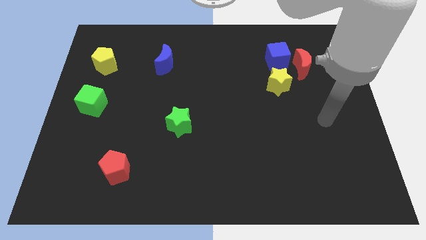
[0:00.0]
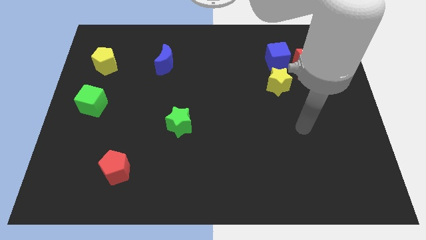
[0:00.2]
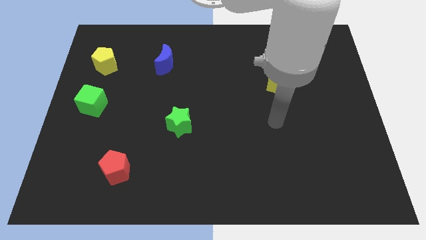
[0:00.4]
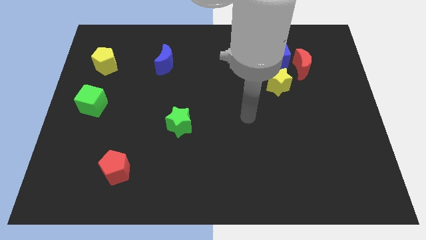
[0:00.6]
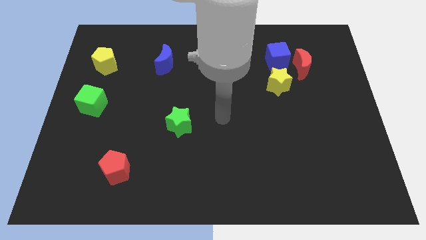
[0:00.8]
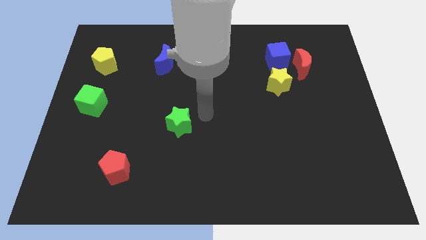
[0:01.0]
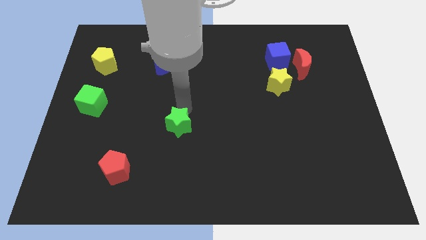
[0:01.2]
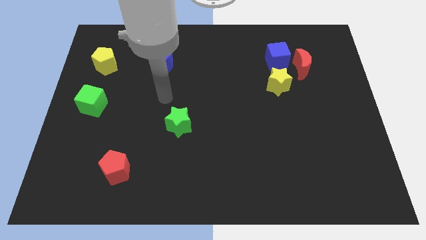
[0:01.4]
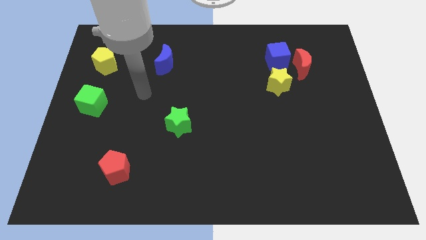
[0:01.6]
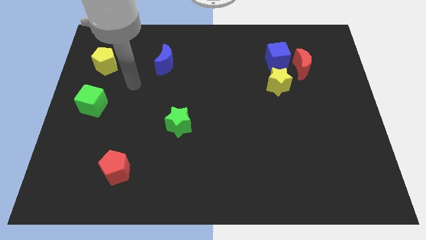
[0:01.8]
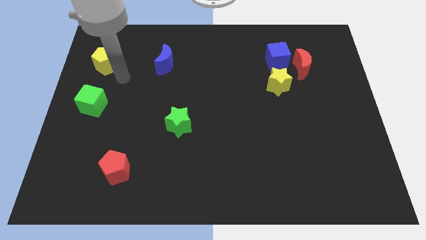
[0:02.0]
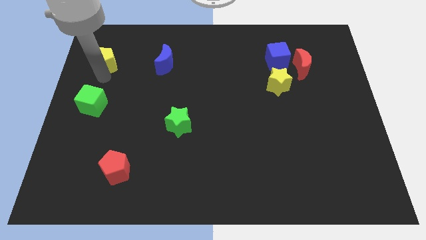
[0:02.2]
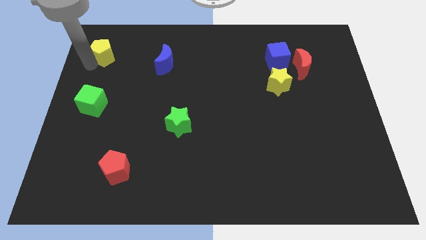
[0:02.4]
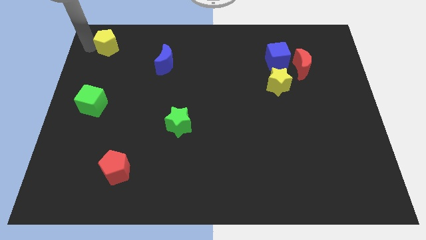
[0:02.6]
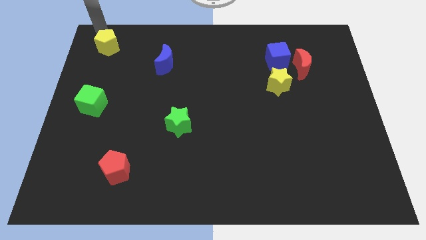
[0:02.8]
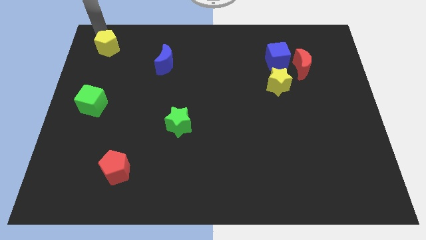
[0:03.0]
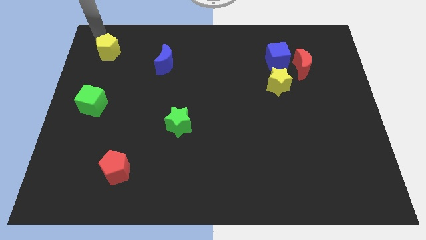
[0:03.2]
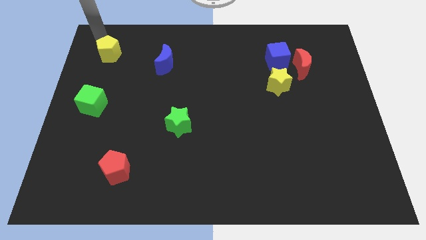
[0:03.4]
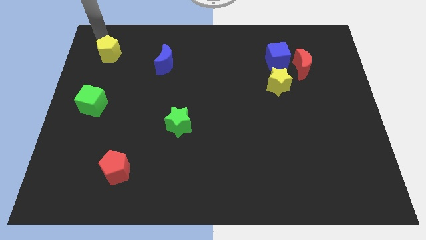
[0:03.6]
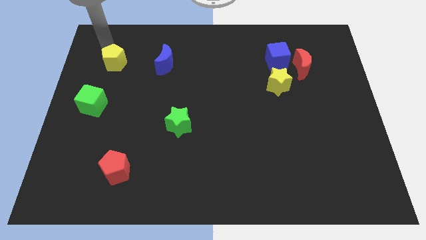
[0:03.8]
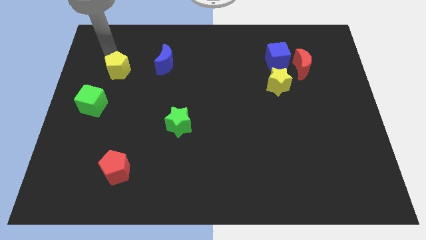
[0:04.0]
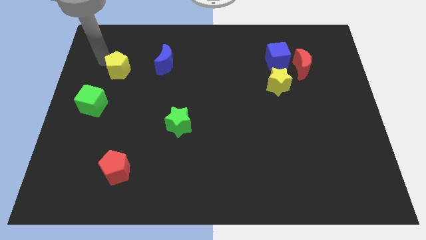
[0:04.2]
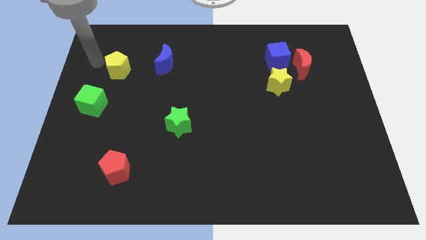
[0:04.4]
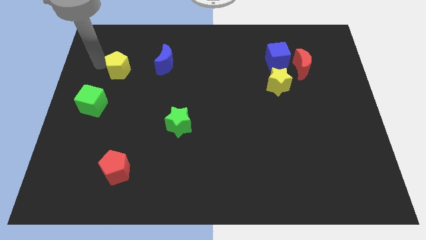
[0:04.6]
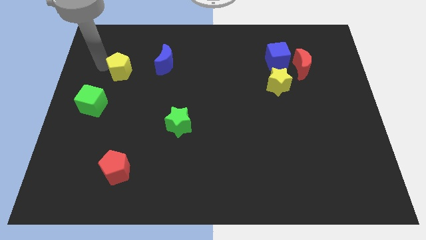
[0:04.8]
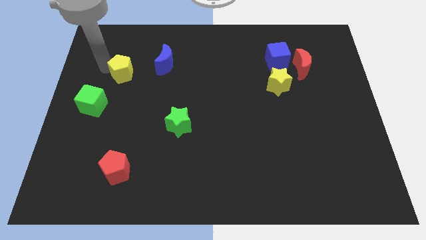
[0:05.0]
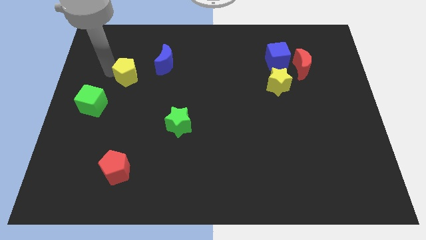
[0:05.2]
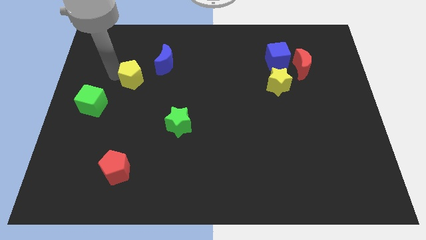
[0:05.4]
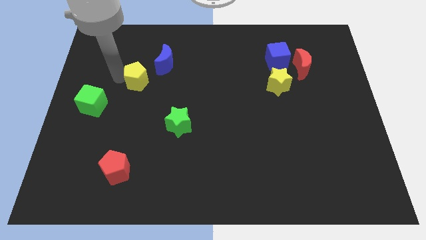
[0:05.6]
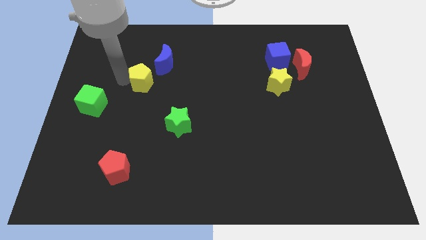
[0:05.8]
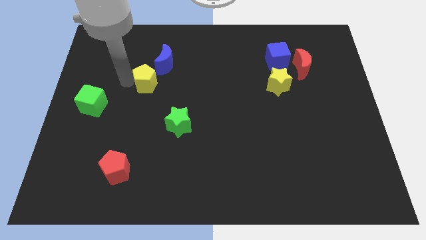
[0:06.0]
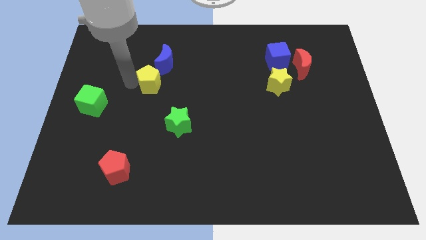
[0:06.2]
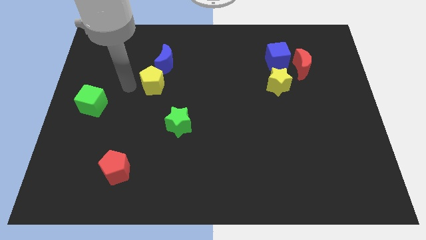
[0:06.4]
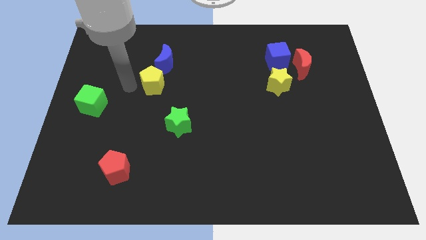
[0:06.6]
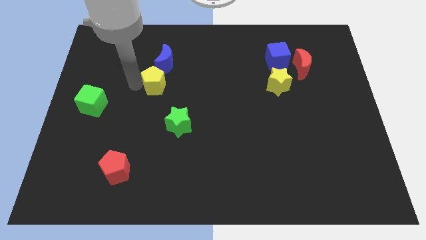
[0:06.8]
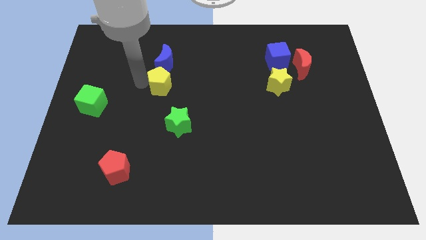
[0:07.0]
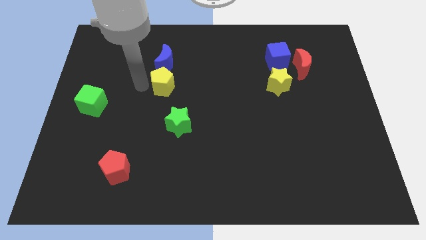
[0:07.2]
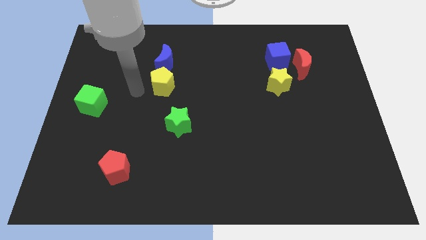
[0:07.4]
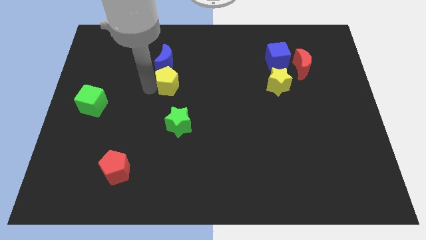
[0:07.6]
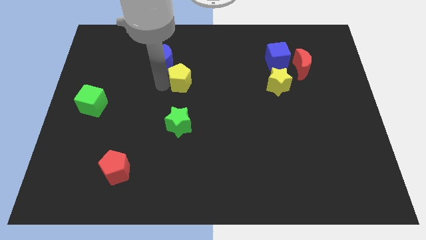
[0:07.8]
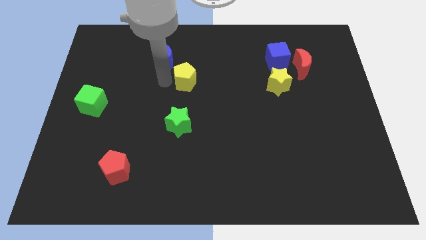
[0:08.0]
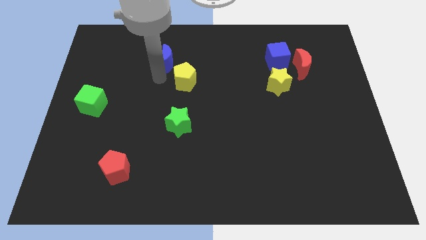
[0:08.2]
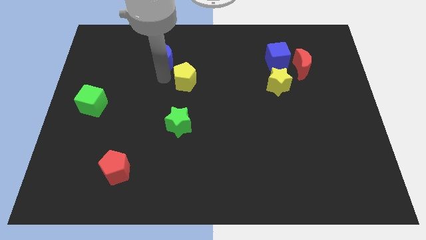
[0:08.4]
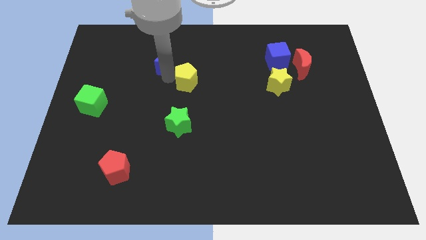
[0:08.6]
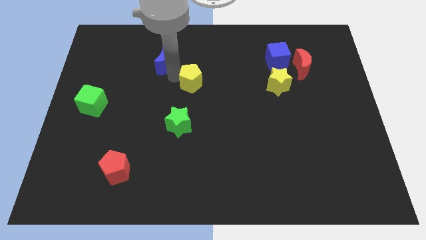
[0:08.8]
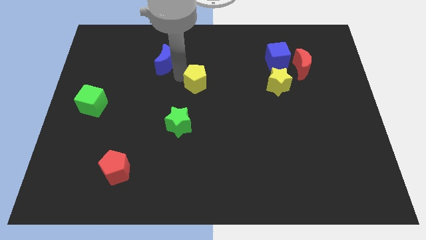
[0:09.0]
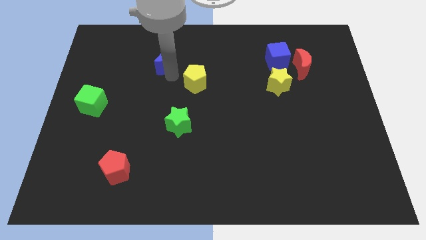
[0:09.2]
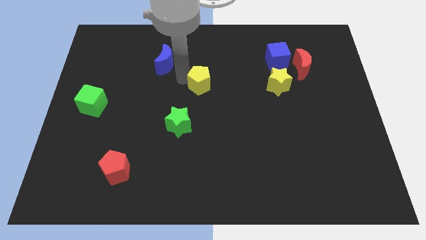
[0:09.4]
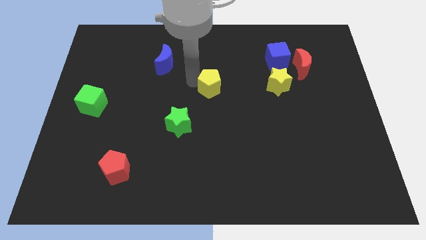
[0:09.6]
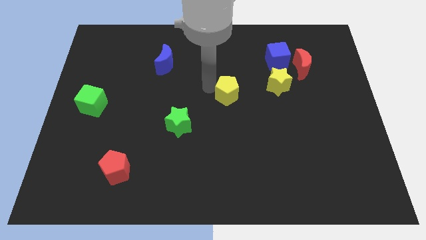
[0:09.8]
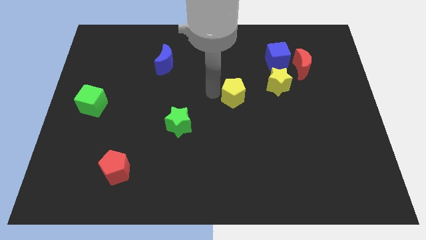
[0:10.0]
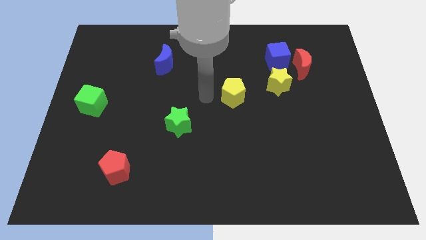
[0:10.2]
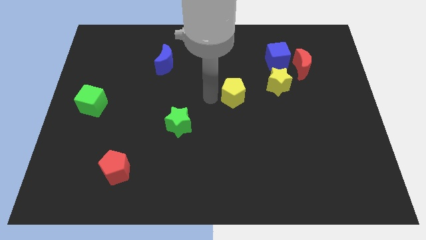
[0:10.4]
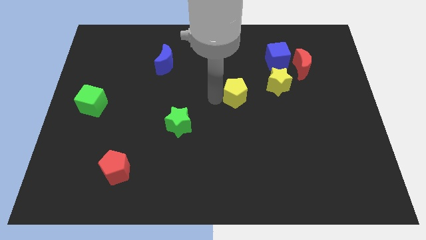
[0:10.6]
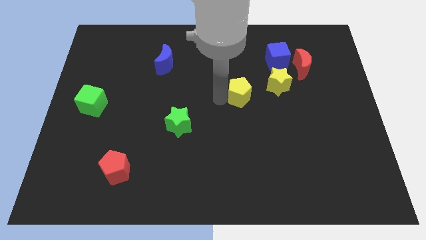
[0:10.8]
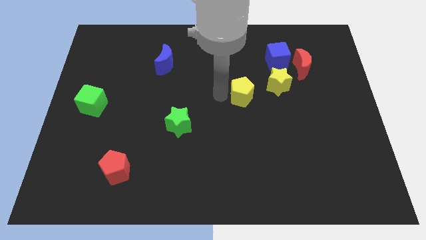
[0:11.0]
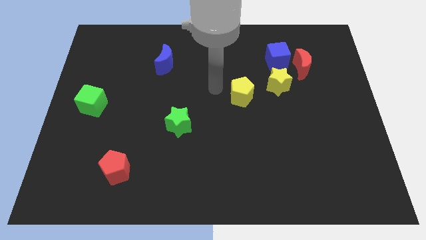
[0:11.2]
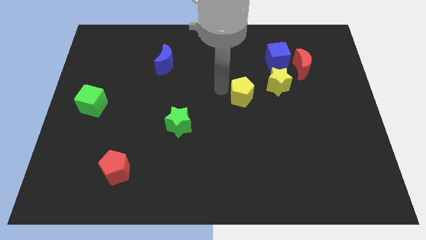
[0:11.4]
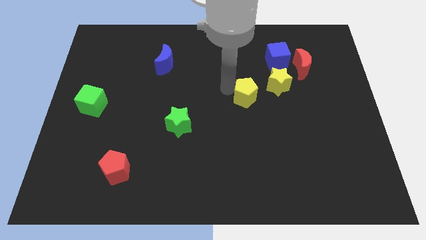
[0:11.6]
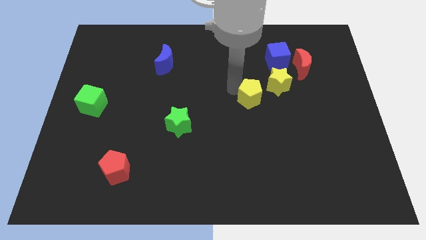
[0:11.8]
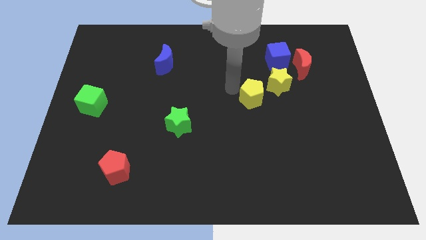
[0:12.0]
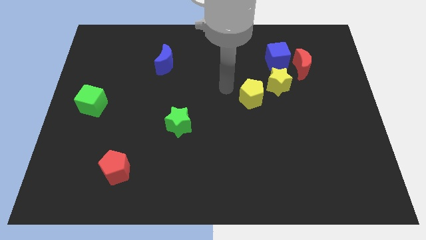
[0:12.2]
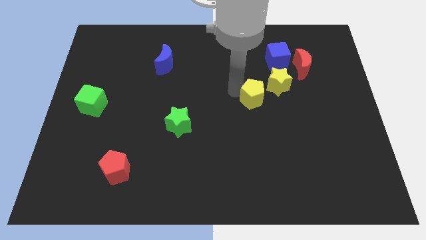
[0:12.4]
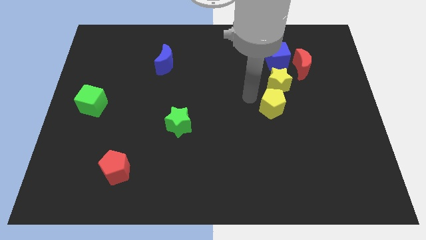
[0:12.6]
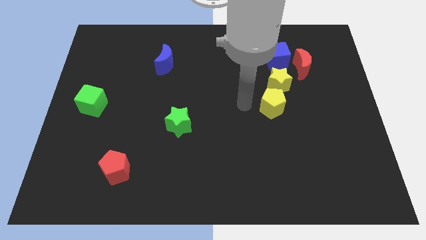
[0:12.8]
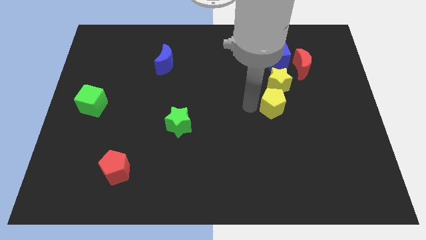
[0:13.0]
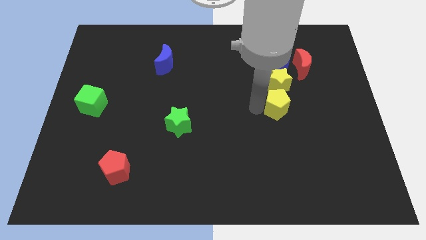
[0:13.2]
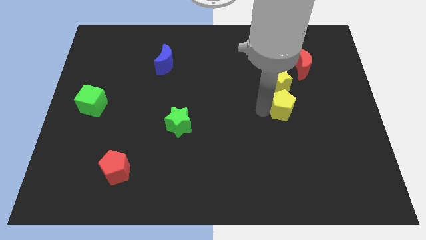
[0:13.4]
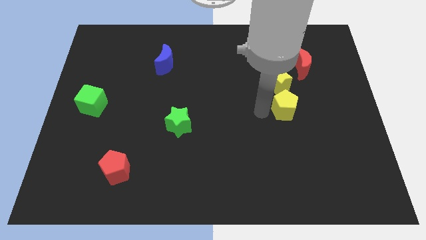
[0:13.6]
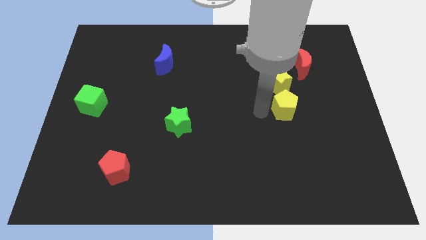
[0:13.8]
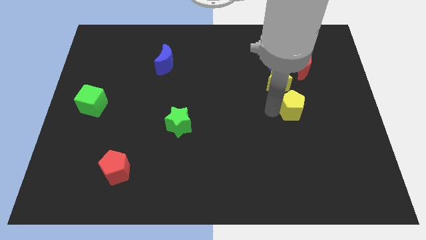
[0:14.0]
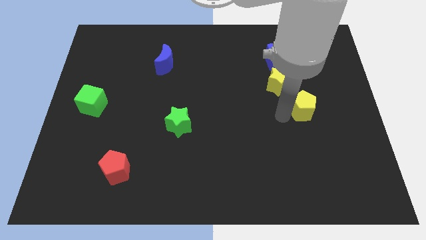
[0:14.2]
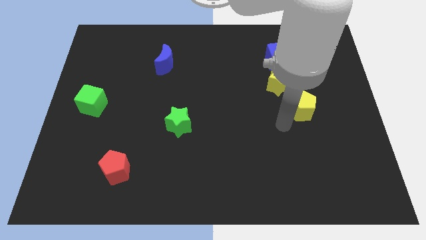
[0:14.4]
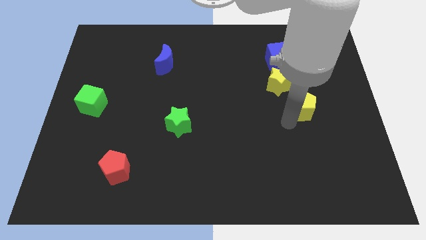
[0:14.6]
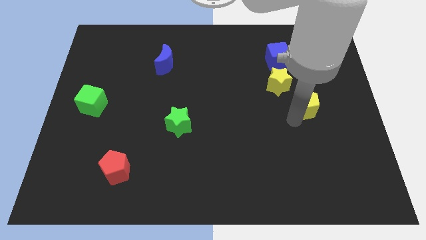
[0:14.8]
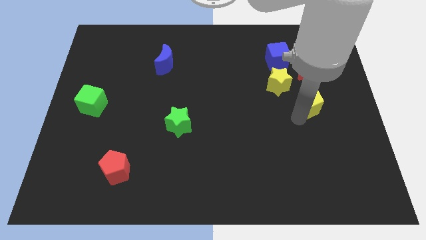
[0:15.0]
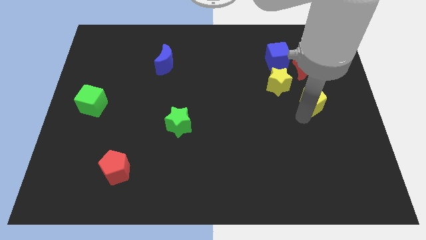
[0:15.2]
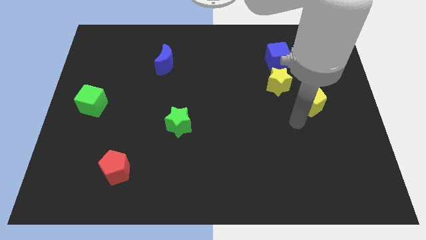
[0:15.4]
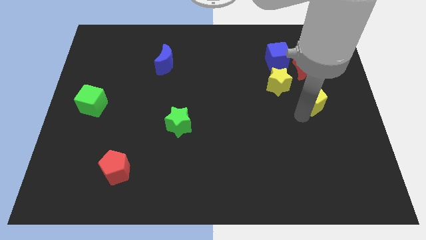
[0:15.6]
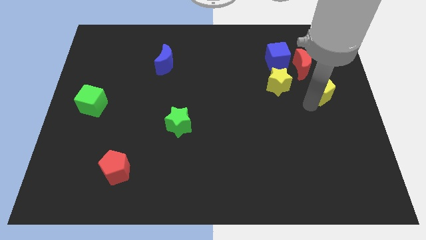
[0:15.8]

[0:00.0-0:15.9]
slide the yellow pentagon to the bottom right of the red moon
